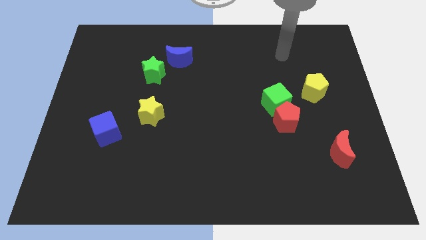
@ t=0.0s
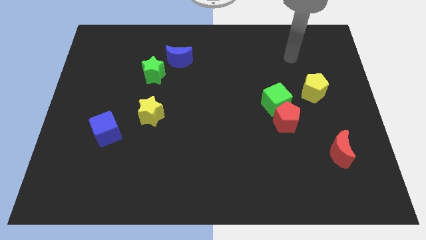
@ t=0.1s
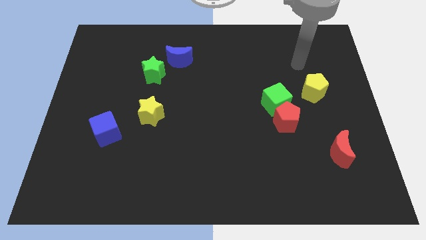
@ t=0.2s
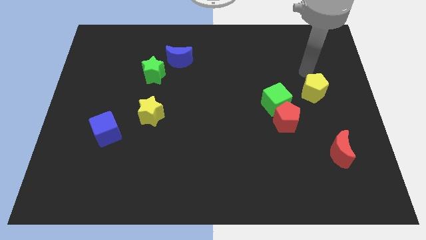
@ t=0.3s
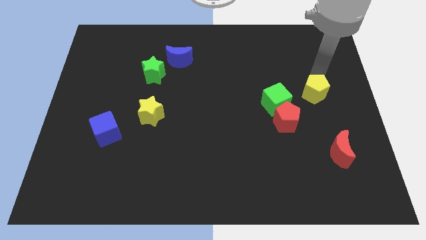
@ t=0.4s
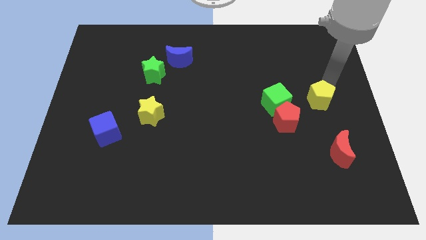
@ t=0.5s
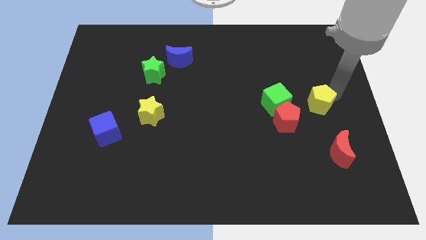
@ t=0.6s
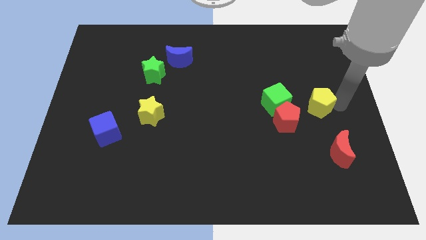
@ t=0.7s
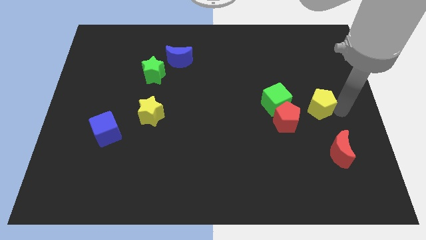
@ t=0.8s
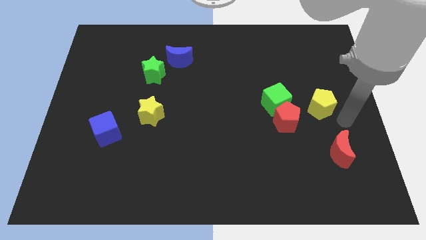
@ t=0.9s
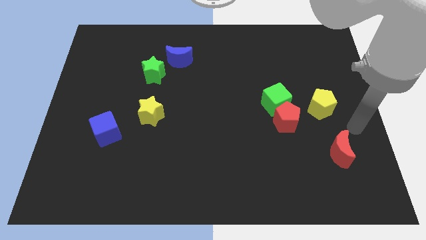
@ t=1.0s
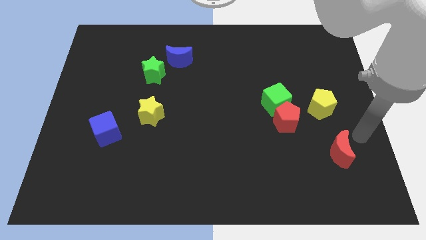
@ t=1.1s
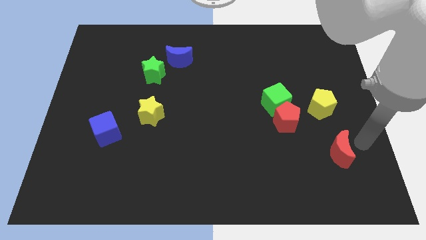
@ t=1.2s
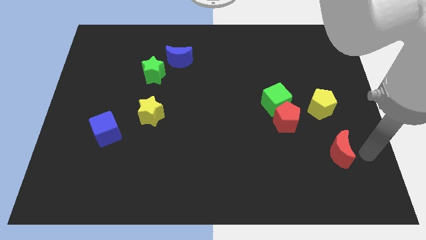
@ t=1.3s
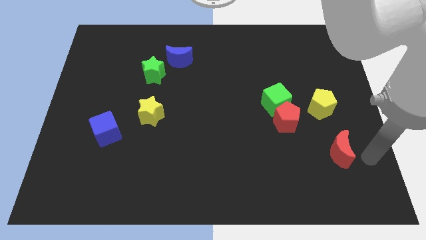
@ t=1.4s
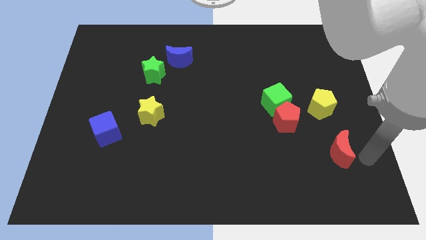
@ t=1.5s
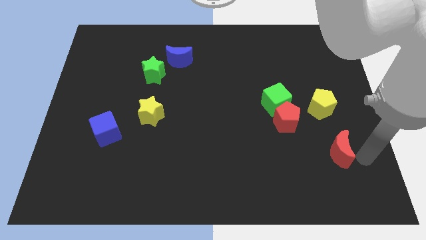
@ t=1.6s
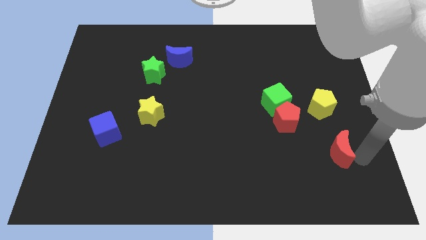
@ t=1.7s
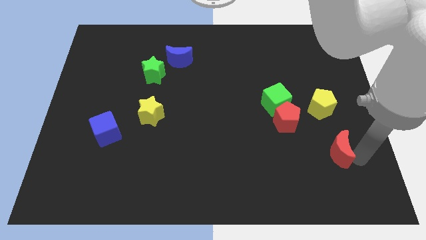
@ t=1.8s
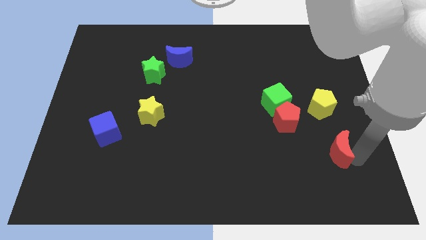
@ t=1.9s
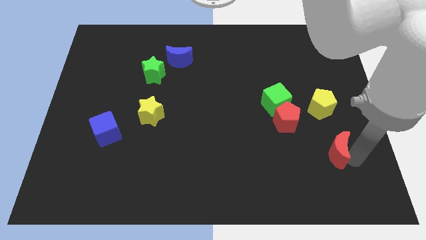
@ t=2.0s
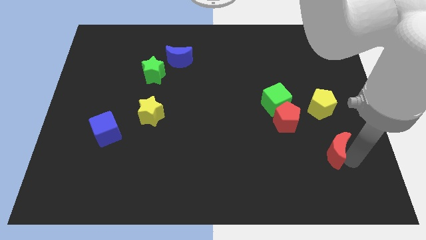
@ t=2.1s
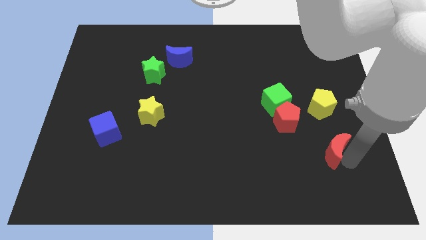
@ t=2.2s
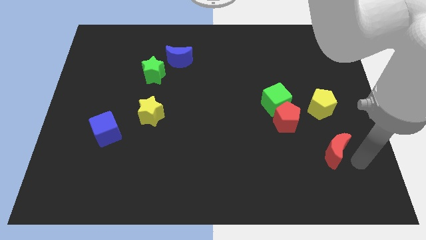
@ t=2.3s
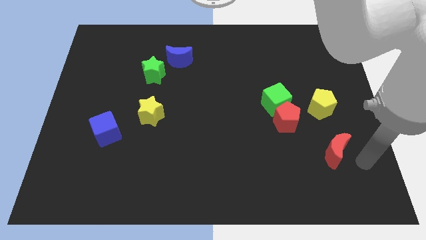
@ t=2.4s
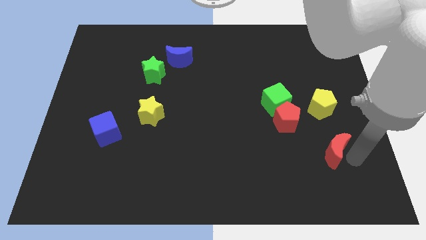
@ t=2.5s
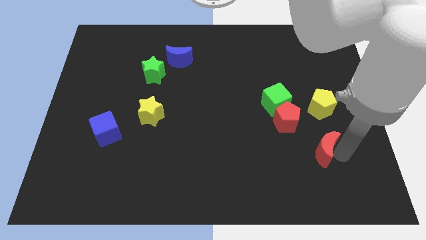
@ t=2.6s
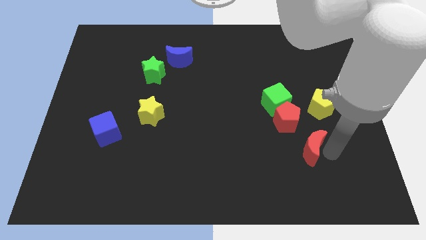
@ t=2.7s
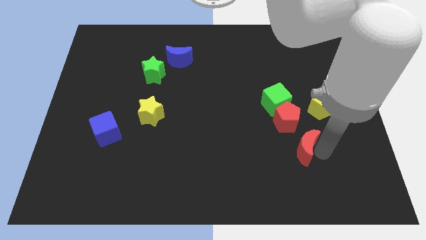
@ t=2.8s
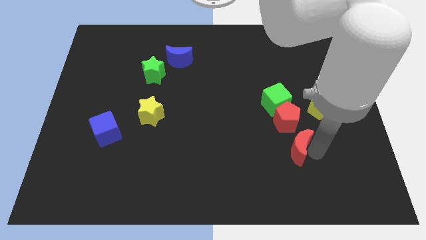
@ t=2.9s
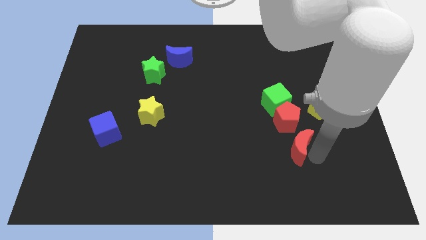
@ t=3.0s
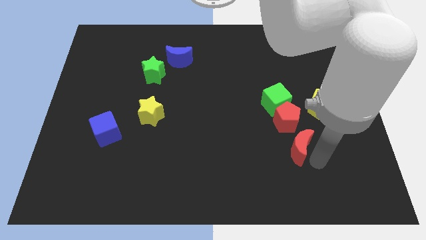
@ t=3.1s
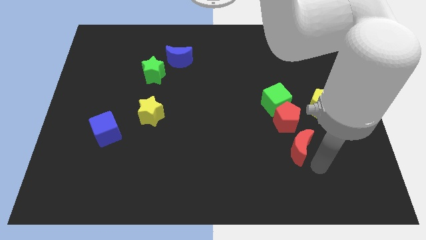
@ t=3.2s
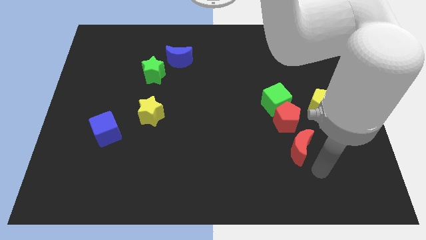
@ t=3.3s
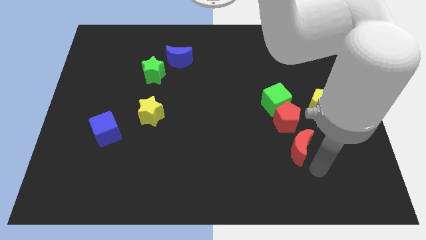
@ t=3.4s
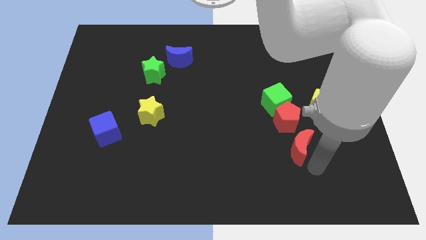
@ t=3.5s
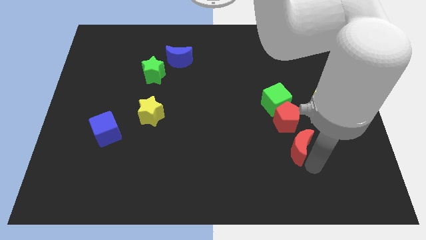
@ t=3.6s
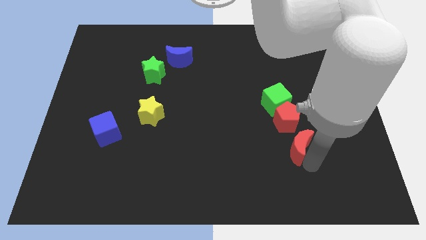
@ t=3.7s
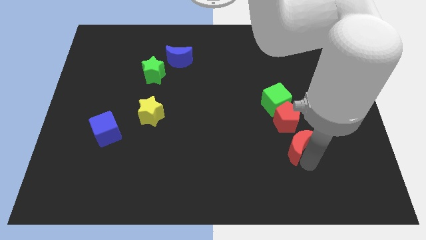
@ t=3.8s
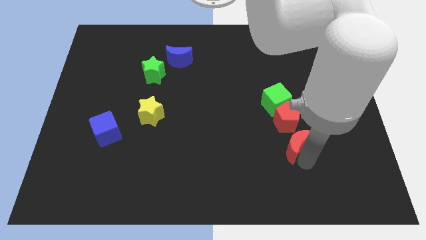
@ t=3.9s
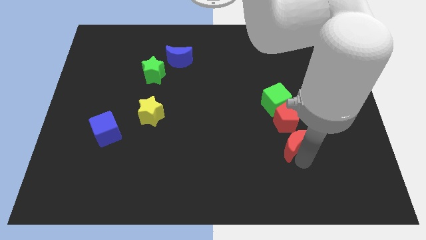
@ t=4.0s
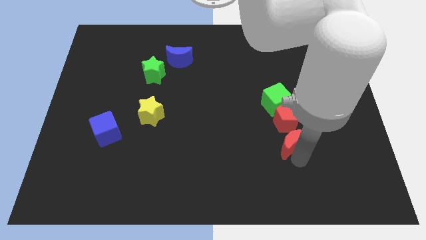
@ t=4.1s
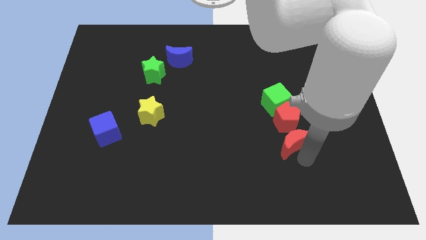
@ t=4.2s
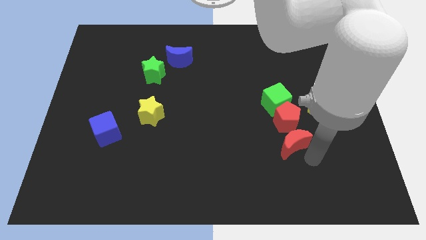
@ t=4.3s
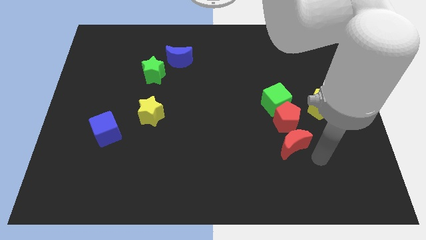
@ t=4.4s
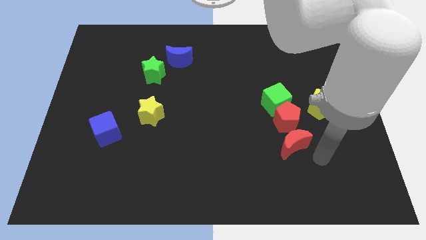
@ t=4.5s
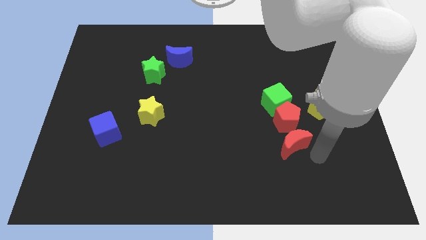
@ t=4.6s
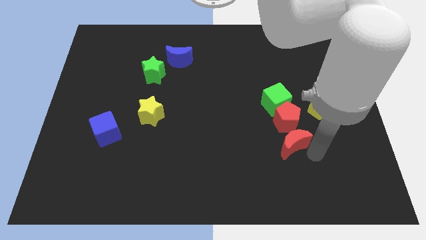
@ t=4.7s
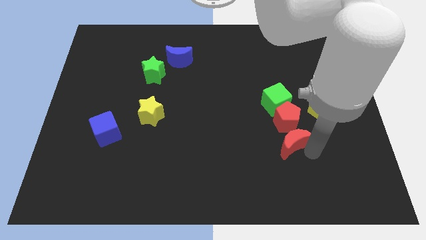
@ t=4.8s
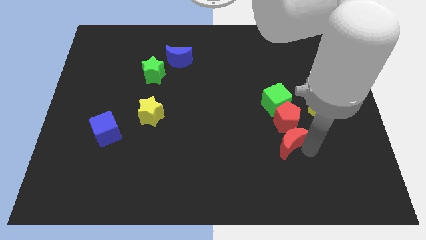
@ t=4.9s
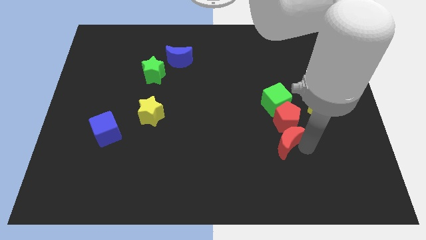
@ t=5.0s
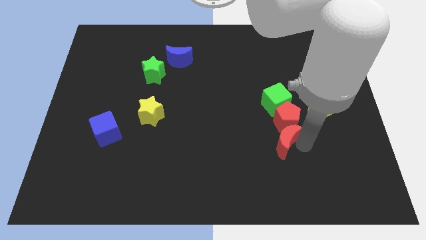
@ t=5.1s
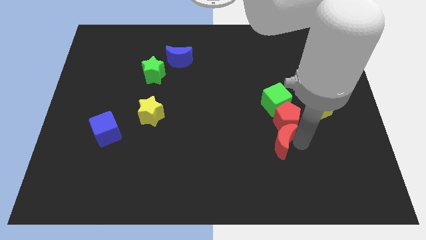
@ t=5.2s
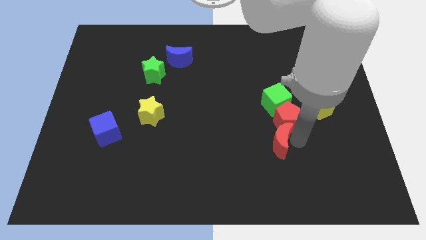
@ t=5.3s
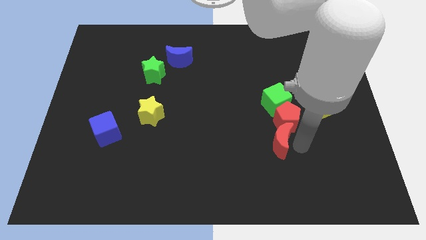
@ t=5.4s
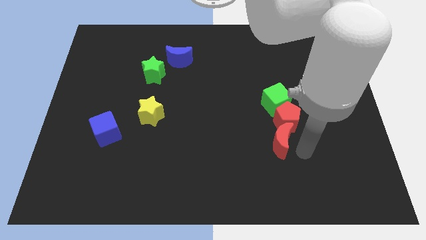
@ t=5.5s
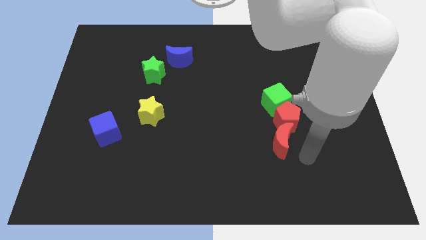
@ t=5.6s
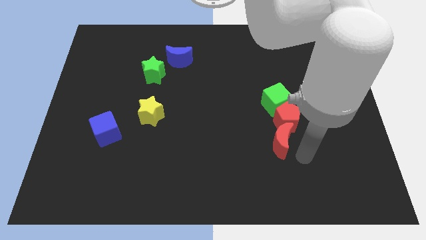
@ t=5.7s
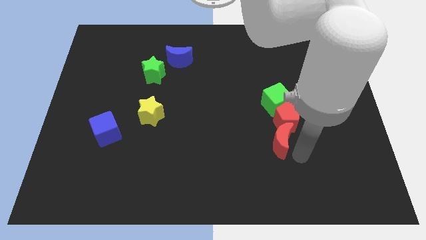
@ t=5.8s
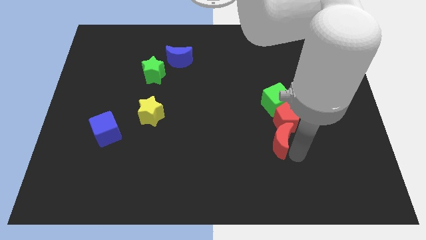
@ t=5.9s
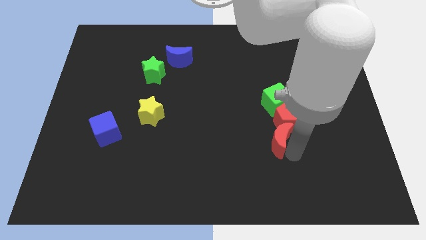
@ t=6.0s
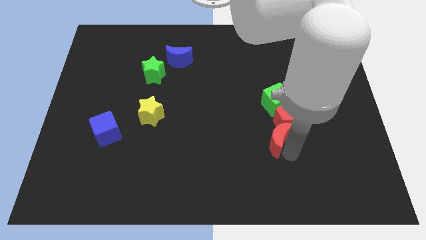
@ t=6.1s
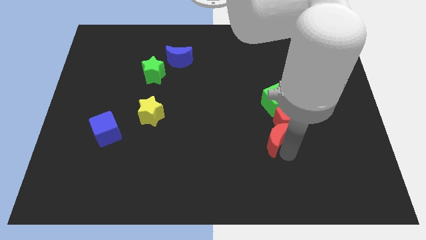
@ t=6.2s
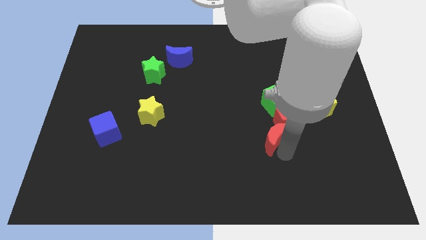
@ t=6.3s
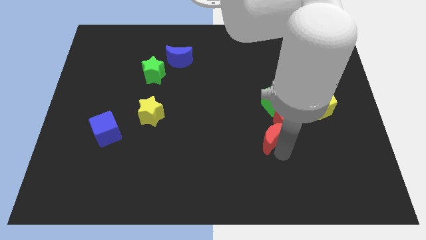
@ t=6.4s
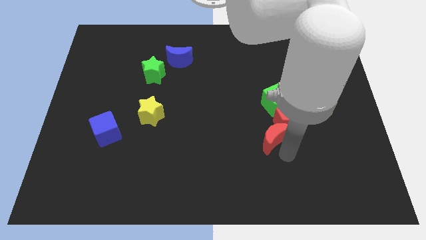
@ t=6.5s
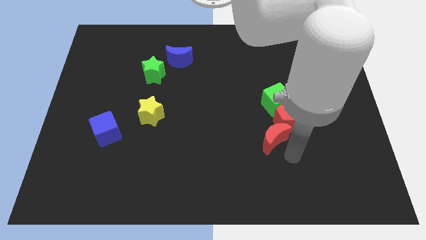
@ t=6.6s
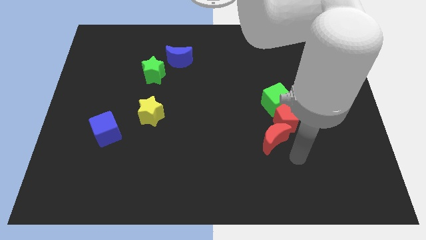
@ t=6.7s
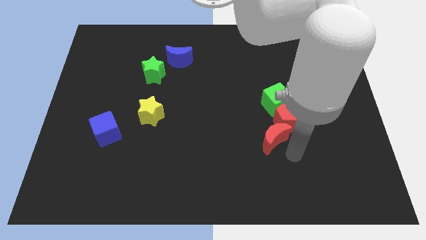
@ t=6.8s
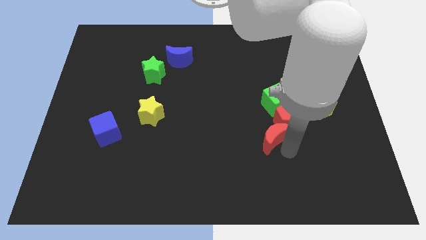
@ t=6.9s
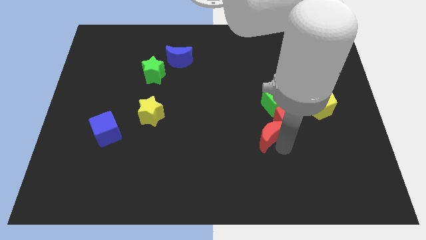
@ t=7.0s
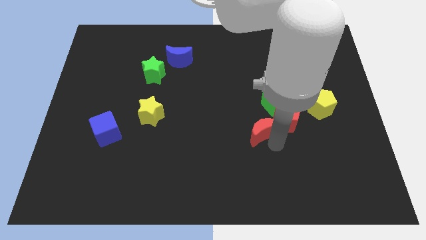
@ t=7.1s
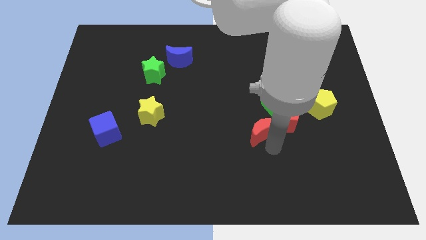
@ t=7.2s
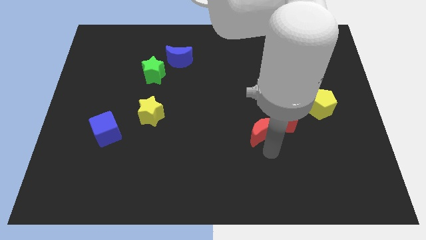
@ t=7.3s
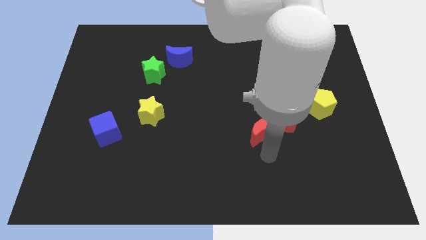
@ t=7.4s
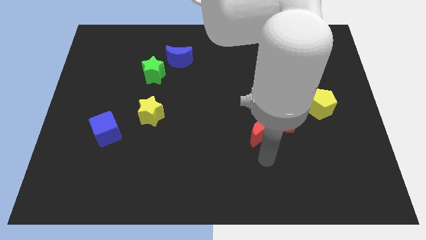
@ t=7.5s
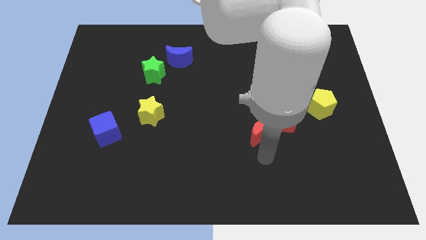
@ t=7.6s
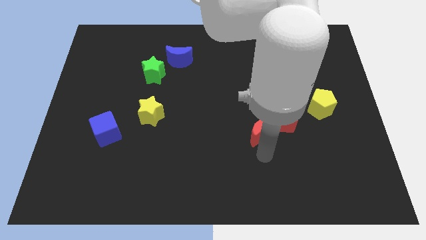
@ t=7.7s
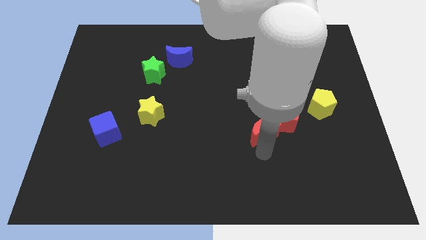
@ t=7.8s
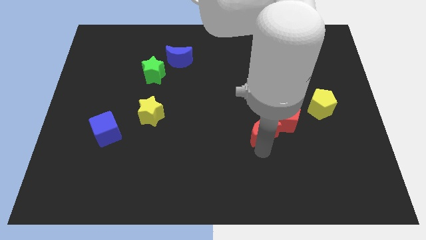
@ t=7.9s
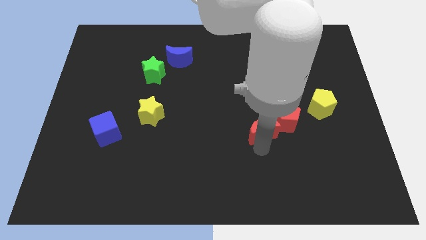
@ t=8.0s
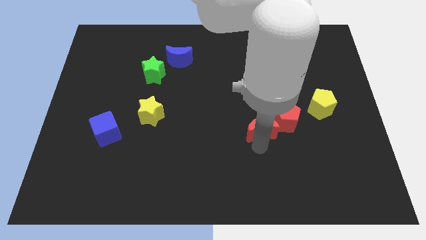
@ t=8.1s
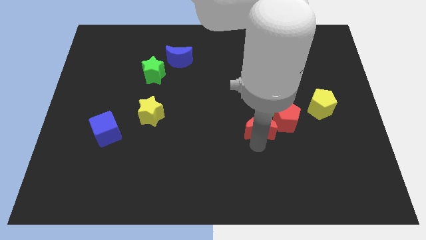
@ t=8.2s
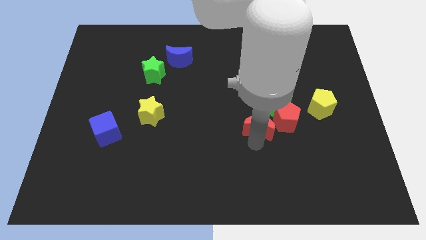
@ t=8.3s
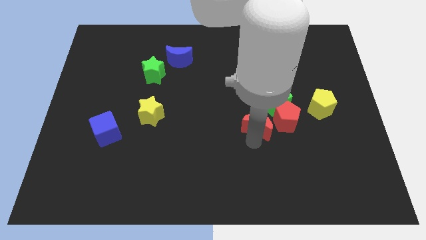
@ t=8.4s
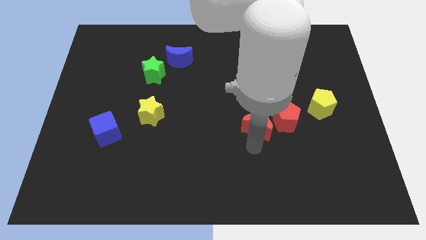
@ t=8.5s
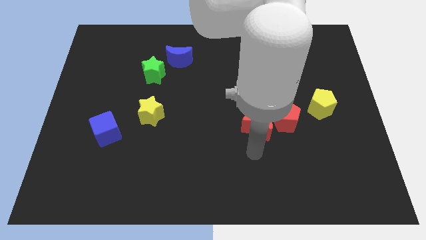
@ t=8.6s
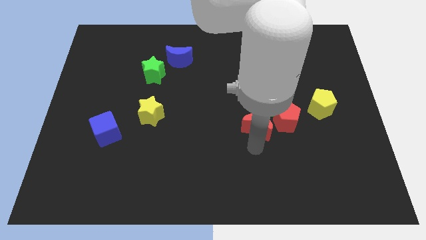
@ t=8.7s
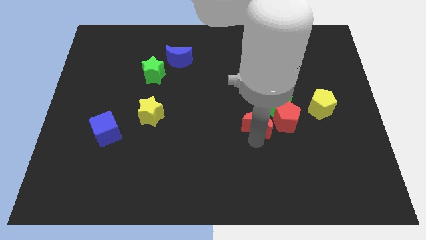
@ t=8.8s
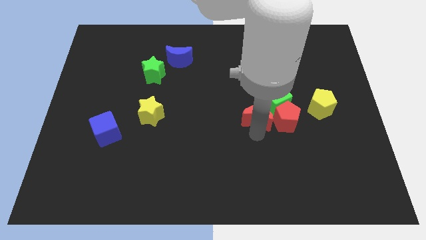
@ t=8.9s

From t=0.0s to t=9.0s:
move the red moon diagonally up and to the left of the red pentagon
